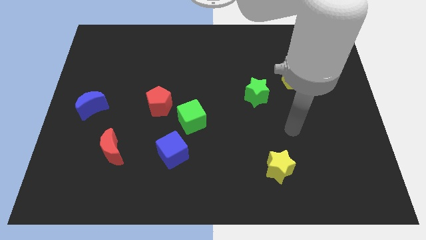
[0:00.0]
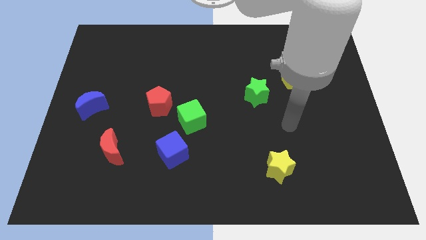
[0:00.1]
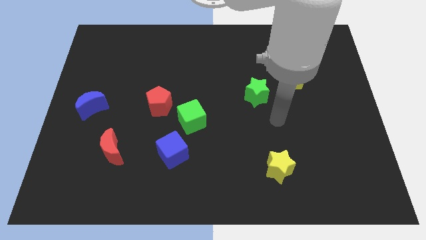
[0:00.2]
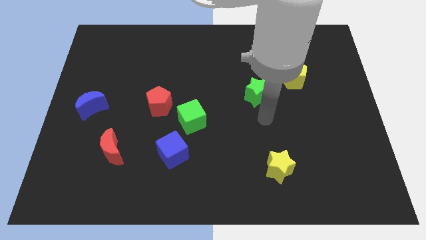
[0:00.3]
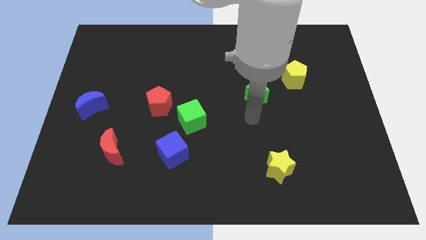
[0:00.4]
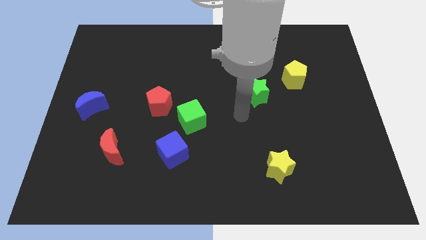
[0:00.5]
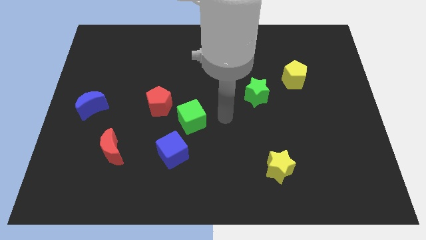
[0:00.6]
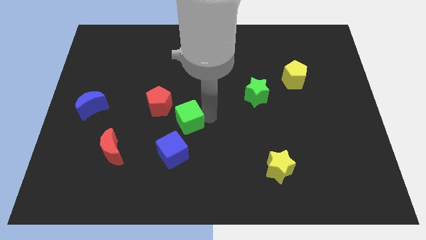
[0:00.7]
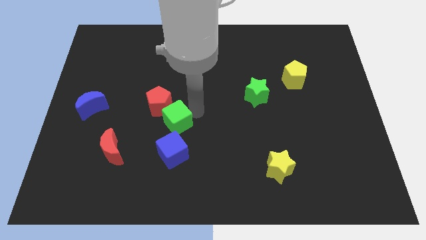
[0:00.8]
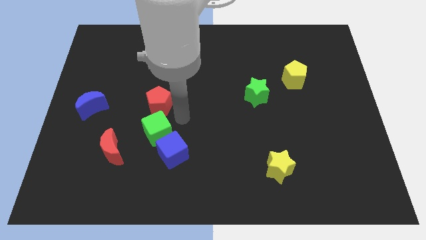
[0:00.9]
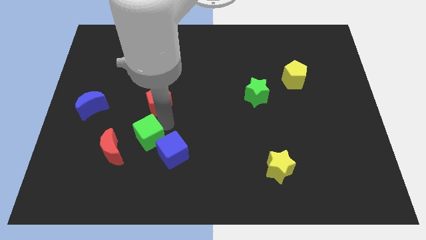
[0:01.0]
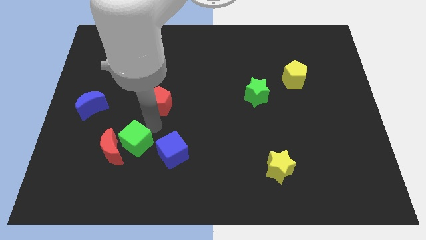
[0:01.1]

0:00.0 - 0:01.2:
pull the red pentagon apart from the green cube

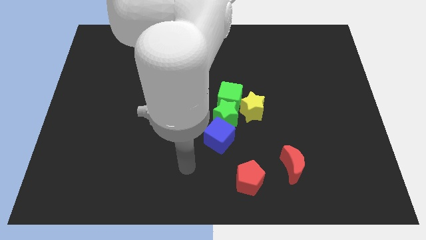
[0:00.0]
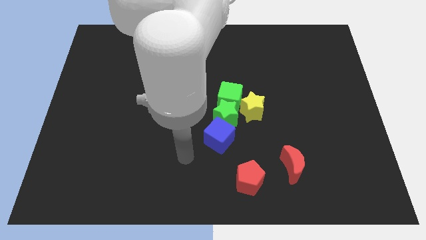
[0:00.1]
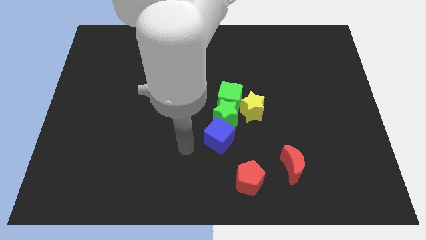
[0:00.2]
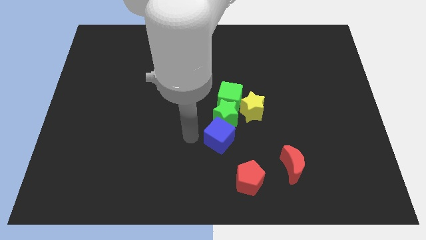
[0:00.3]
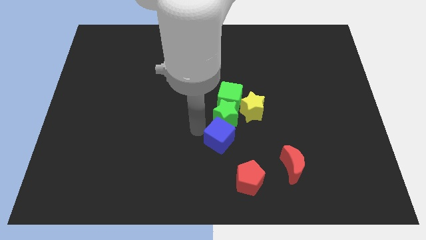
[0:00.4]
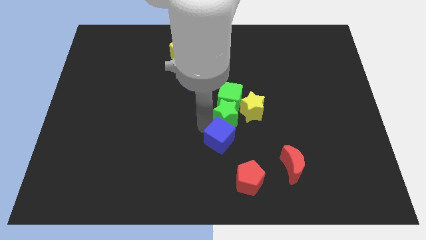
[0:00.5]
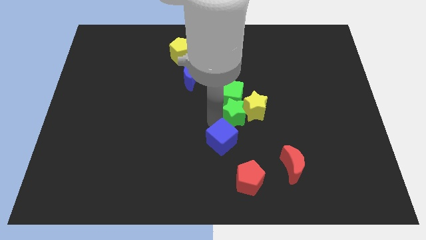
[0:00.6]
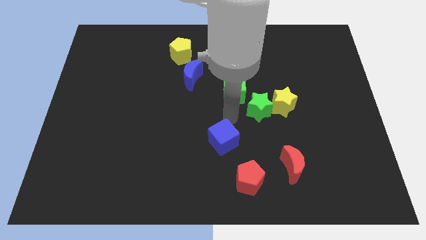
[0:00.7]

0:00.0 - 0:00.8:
pull the blue cube apart from the green star

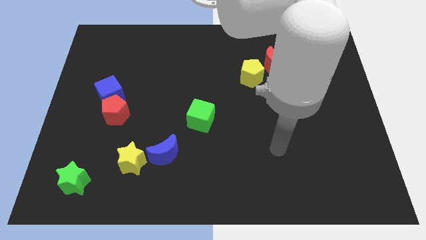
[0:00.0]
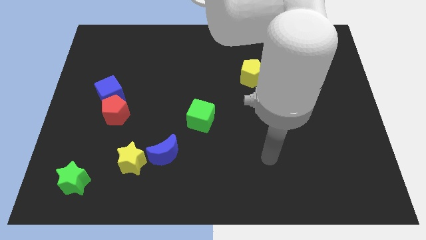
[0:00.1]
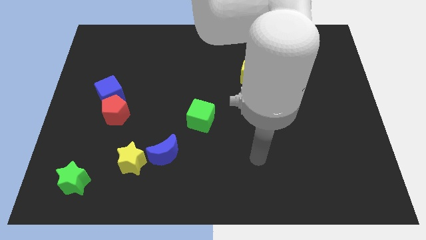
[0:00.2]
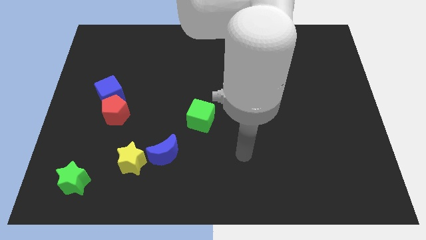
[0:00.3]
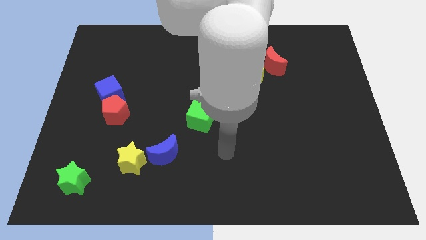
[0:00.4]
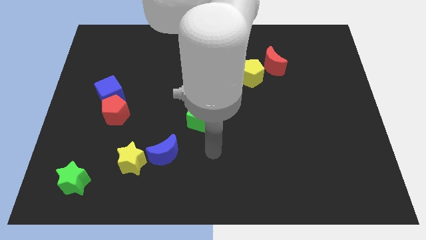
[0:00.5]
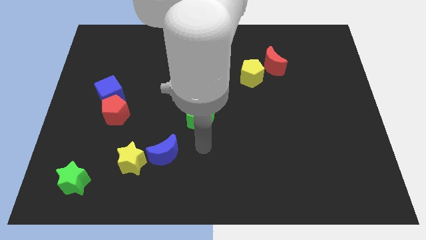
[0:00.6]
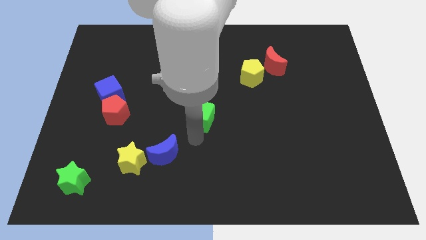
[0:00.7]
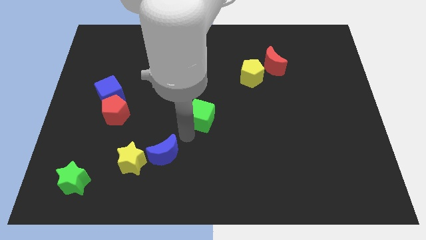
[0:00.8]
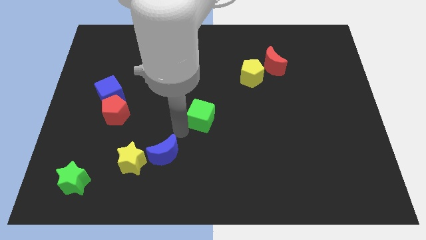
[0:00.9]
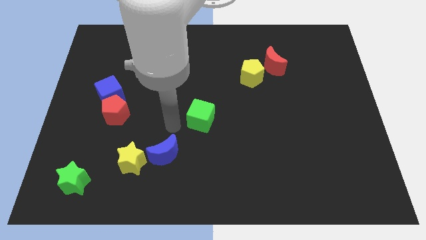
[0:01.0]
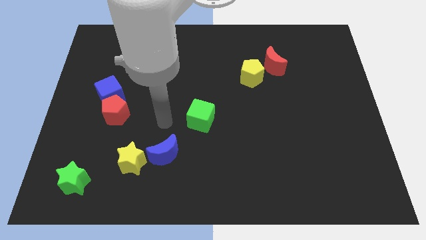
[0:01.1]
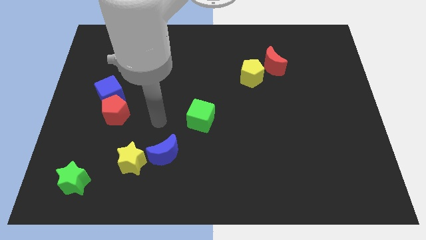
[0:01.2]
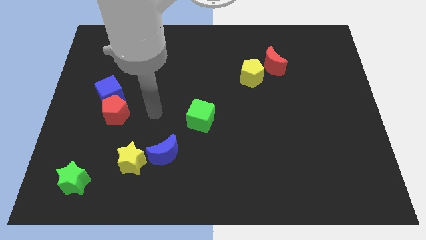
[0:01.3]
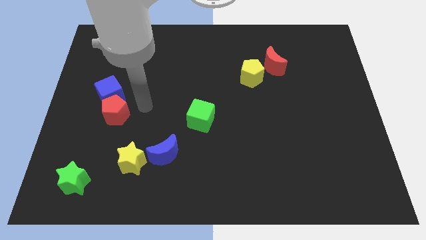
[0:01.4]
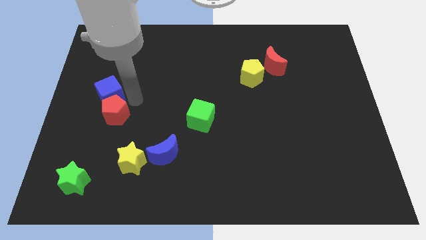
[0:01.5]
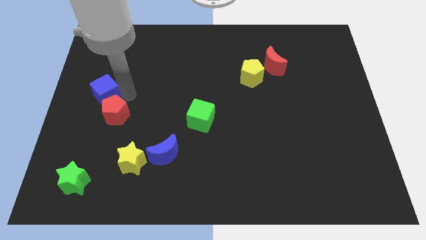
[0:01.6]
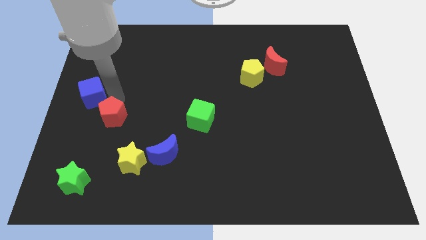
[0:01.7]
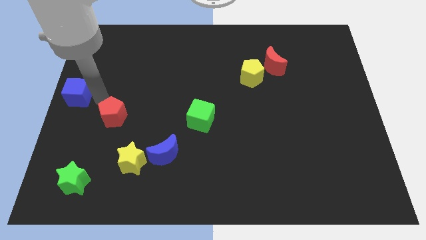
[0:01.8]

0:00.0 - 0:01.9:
separate the red pentagon from the blue cube

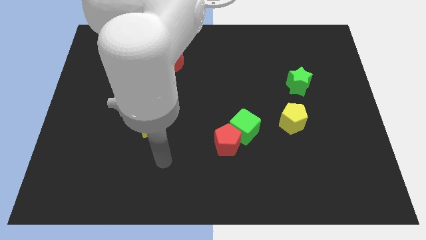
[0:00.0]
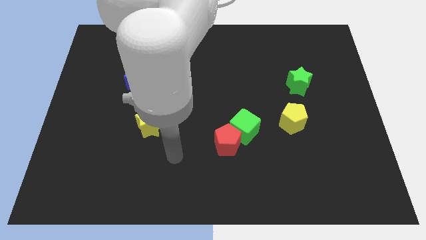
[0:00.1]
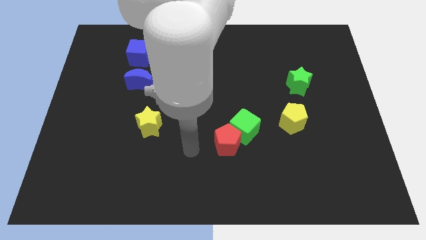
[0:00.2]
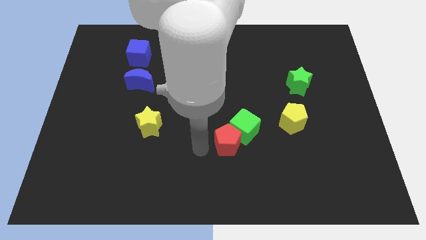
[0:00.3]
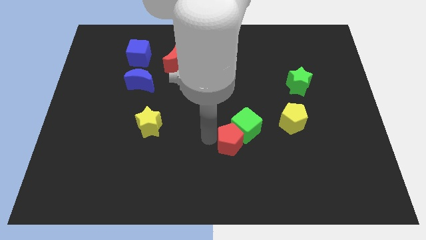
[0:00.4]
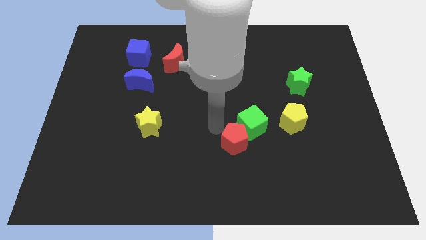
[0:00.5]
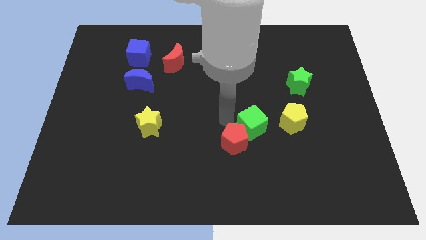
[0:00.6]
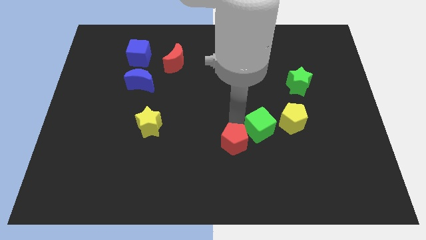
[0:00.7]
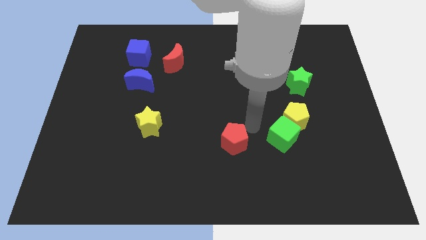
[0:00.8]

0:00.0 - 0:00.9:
move the red pentagon away from the green cube

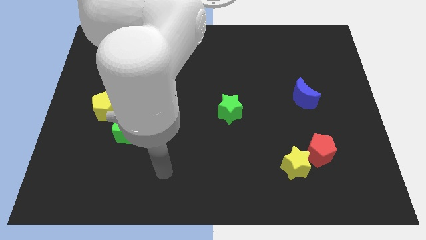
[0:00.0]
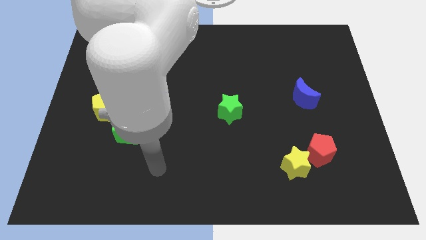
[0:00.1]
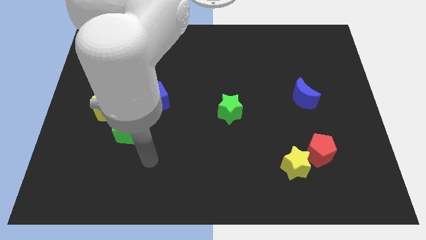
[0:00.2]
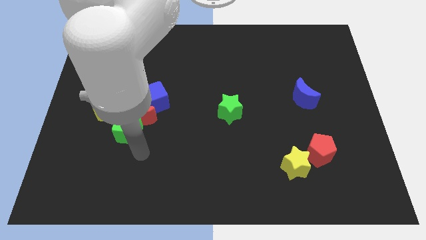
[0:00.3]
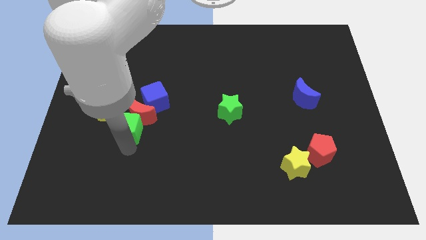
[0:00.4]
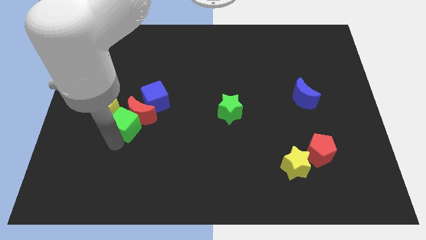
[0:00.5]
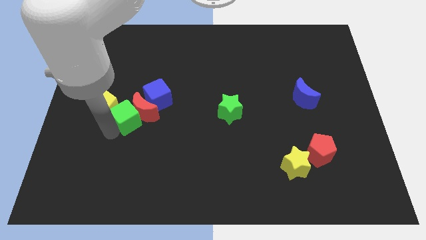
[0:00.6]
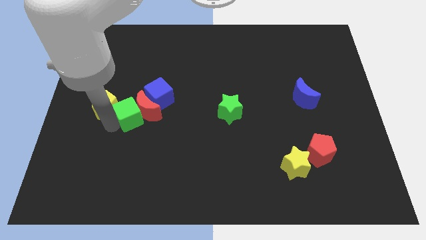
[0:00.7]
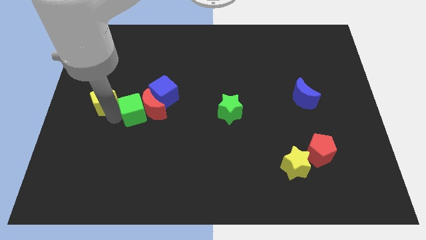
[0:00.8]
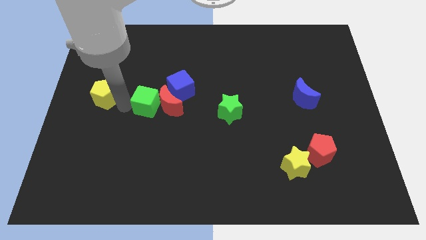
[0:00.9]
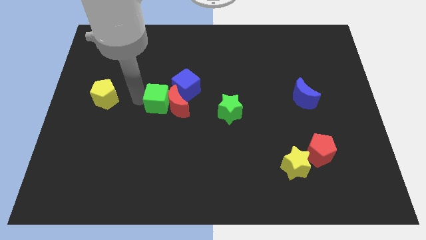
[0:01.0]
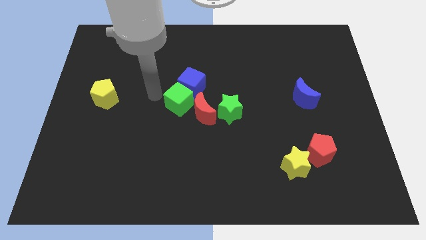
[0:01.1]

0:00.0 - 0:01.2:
pull the red moon apart from the group

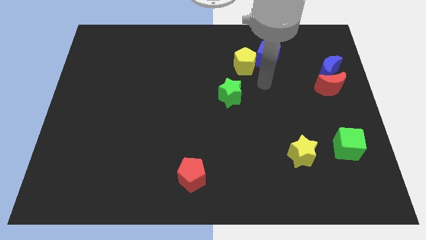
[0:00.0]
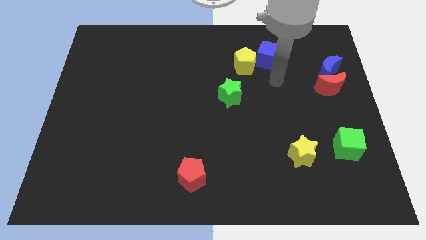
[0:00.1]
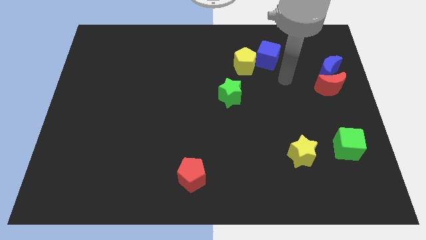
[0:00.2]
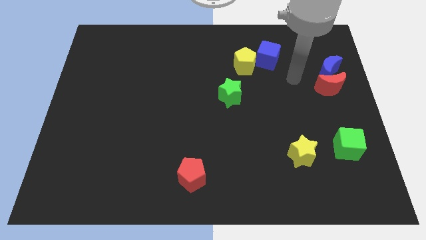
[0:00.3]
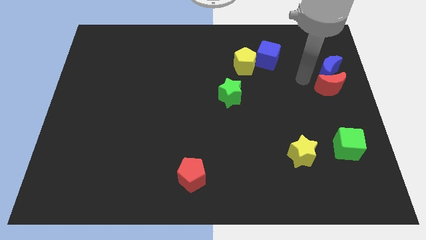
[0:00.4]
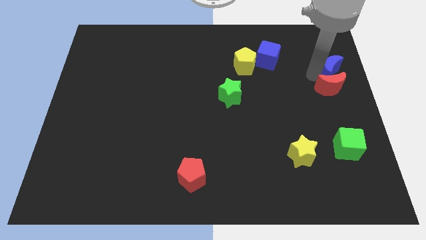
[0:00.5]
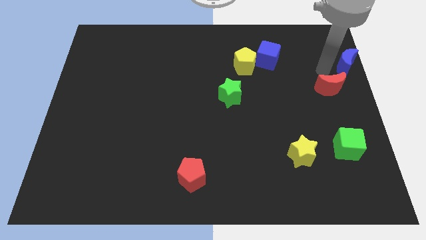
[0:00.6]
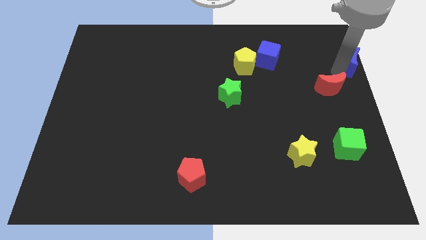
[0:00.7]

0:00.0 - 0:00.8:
separate the red moon from the blue moon

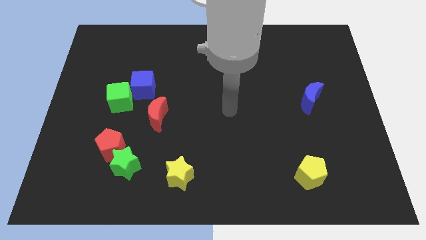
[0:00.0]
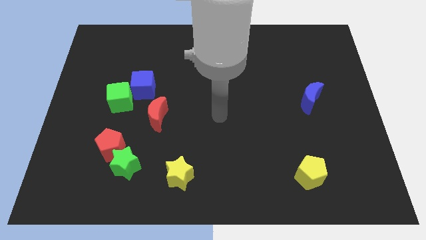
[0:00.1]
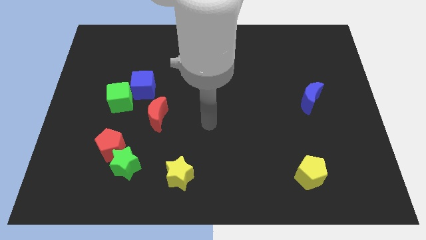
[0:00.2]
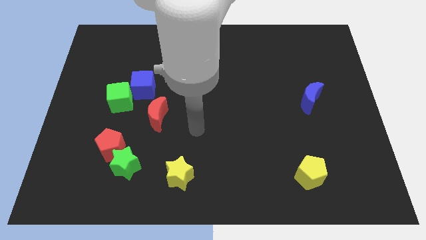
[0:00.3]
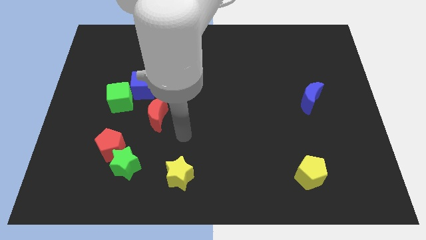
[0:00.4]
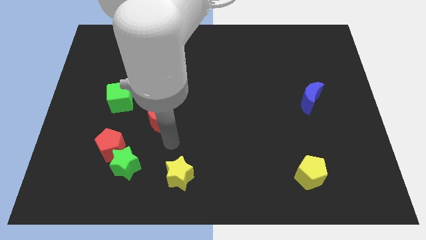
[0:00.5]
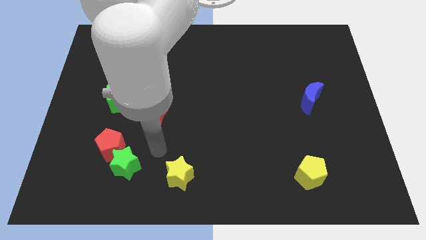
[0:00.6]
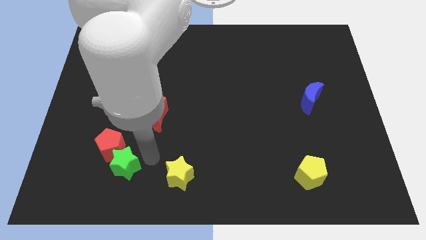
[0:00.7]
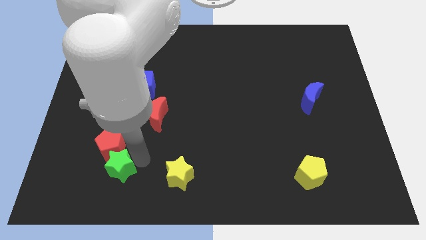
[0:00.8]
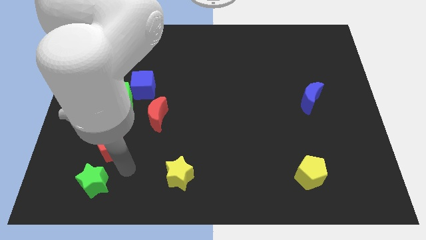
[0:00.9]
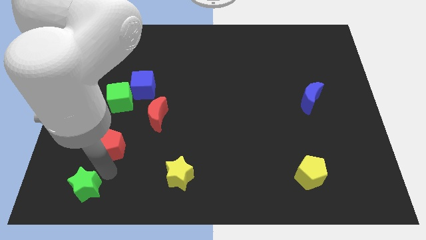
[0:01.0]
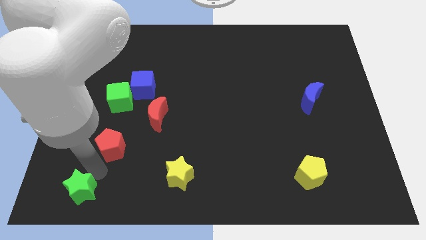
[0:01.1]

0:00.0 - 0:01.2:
move the red pentagon away from the green star

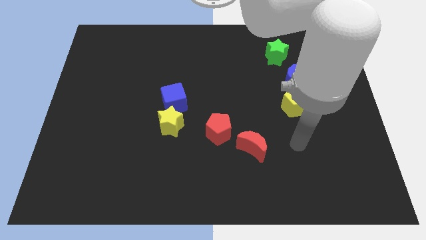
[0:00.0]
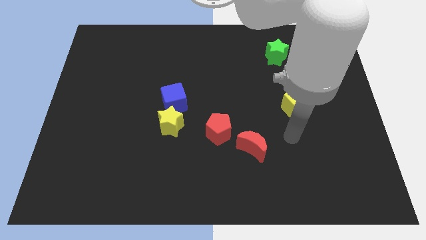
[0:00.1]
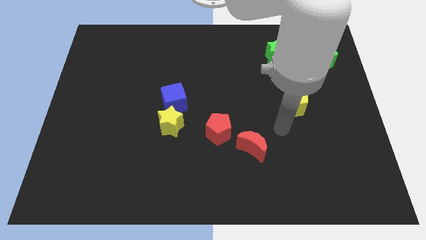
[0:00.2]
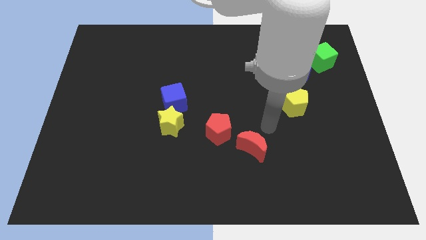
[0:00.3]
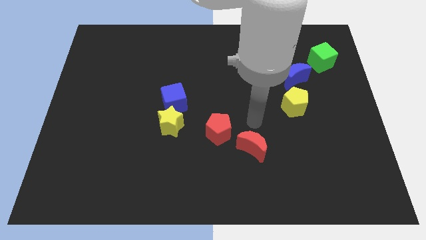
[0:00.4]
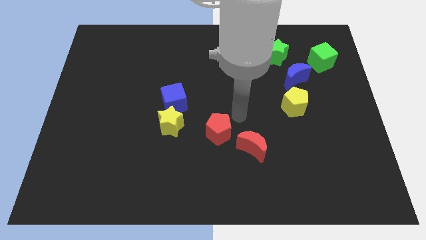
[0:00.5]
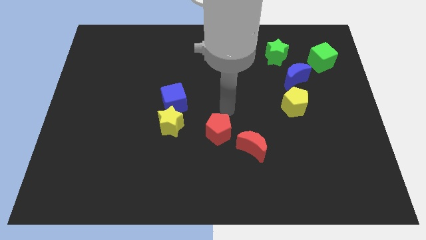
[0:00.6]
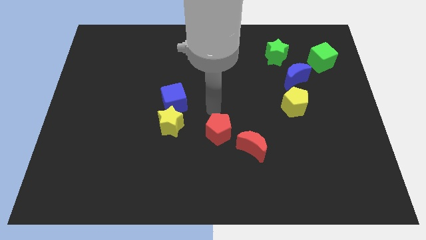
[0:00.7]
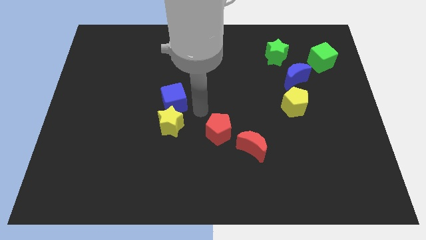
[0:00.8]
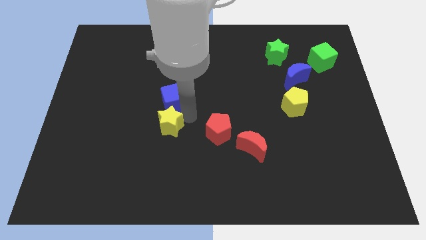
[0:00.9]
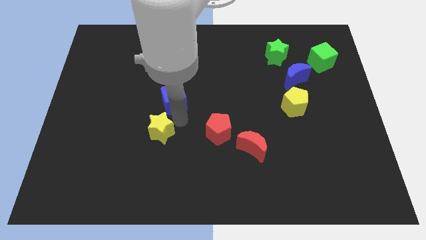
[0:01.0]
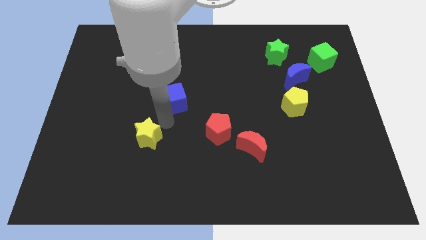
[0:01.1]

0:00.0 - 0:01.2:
separate the blue cube from the yellow star
